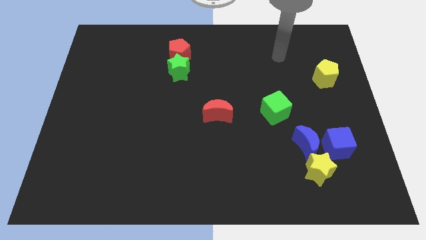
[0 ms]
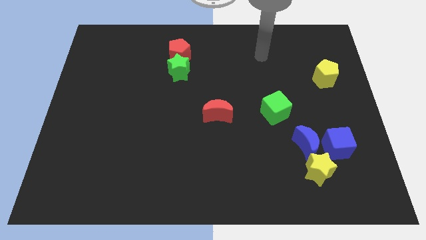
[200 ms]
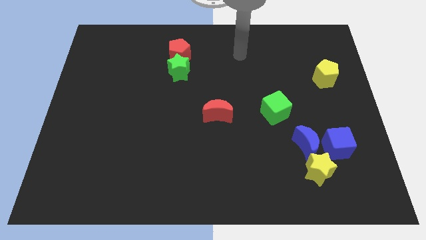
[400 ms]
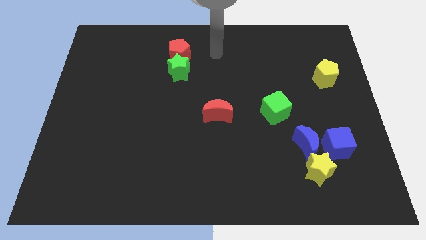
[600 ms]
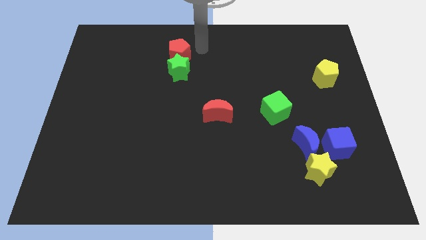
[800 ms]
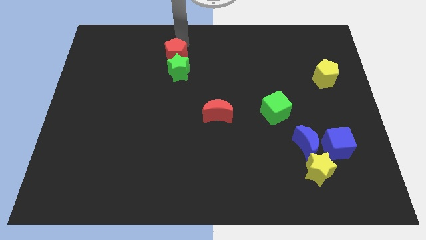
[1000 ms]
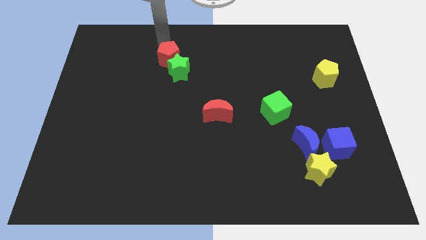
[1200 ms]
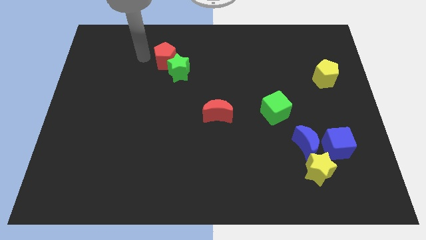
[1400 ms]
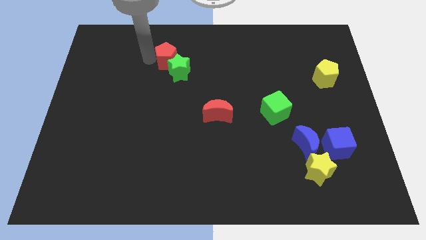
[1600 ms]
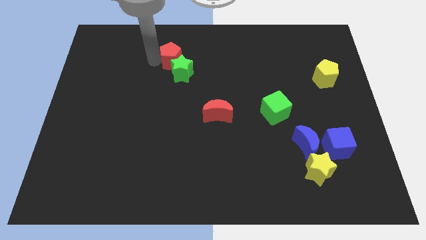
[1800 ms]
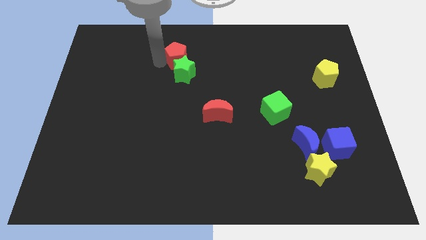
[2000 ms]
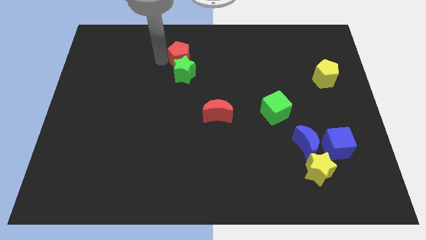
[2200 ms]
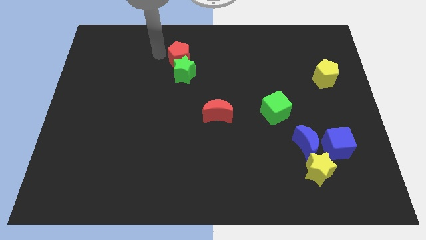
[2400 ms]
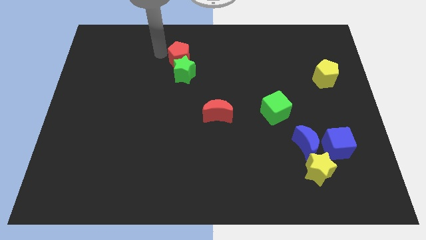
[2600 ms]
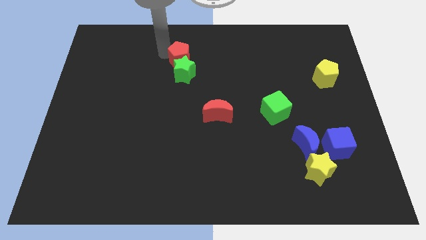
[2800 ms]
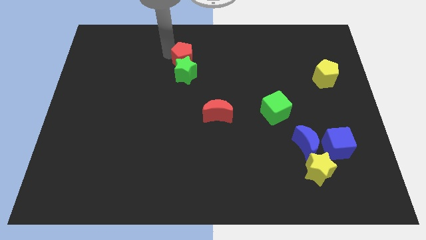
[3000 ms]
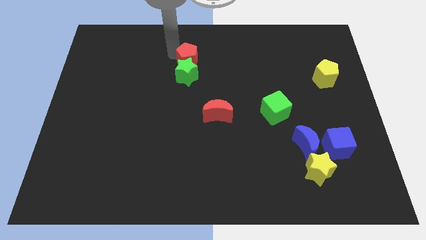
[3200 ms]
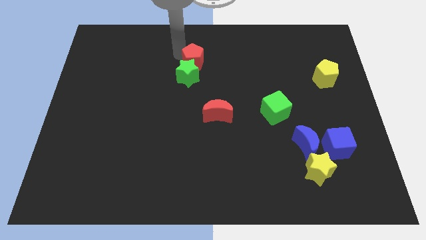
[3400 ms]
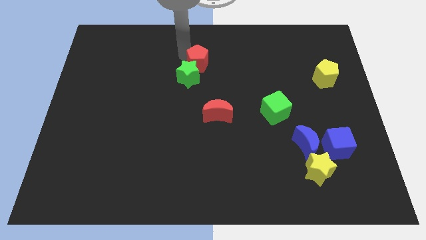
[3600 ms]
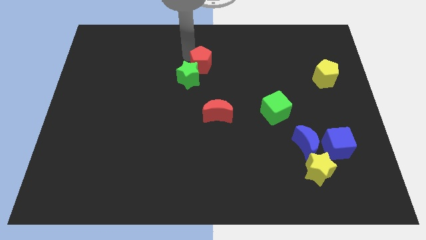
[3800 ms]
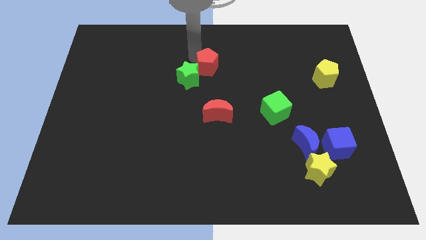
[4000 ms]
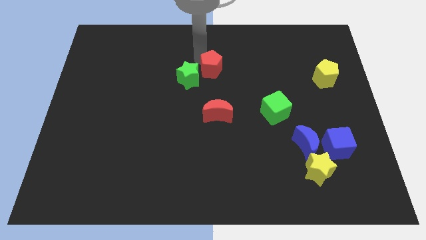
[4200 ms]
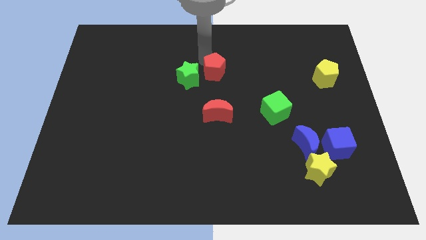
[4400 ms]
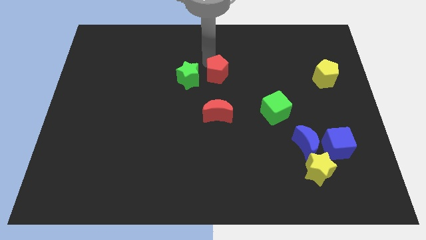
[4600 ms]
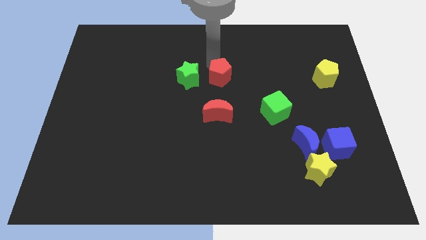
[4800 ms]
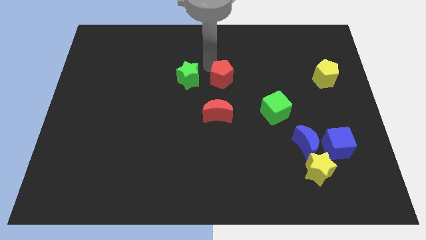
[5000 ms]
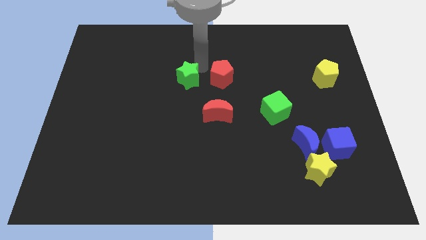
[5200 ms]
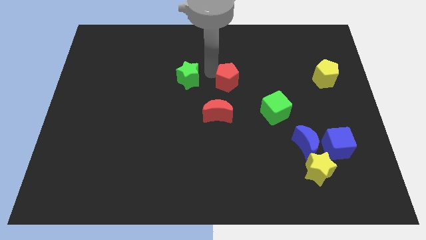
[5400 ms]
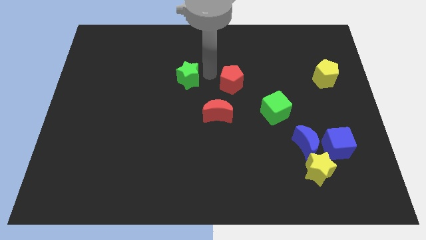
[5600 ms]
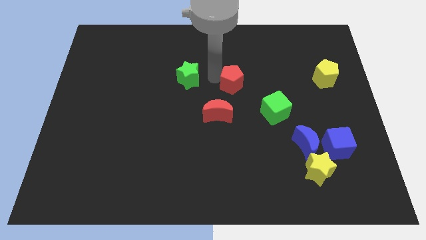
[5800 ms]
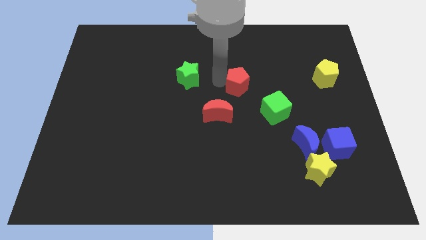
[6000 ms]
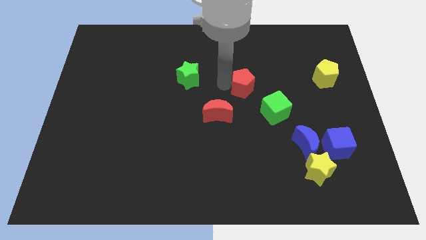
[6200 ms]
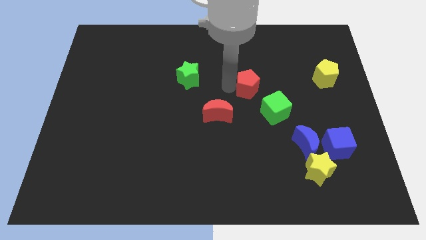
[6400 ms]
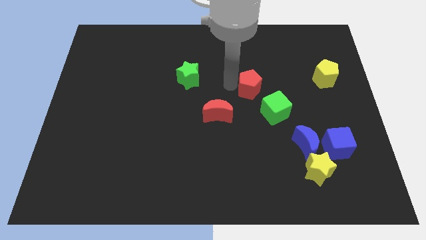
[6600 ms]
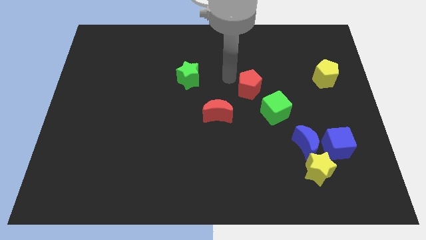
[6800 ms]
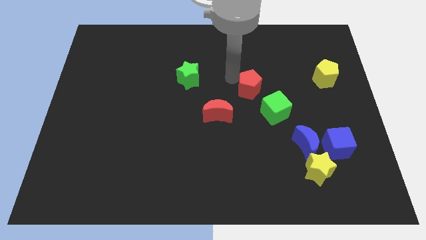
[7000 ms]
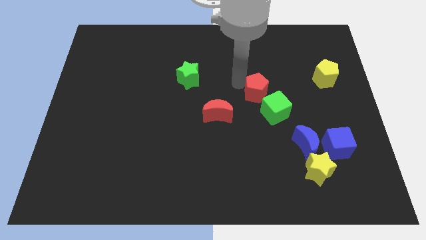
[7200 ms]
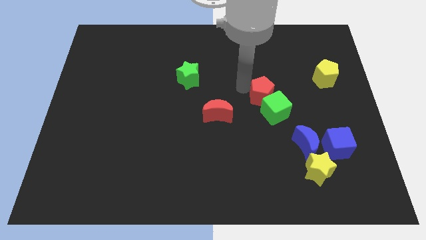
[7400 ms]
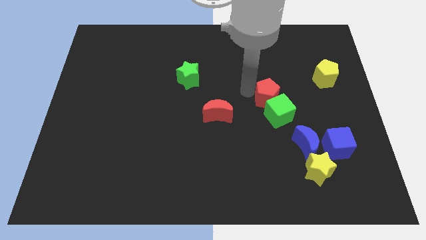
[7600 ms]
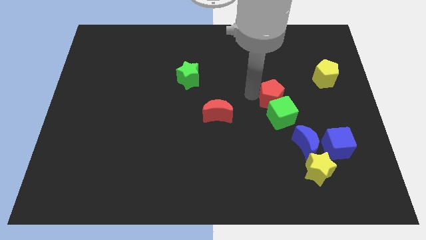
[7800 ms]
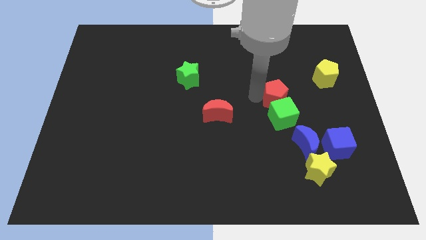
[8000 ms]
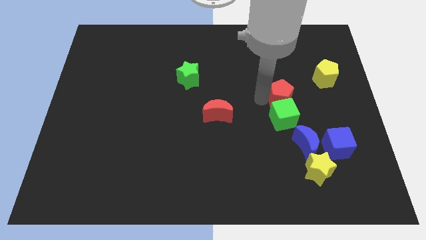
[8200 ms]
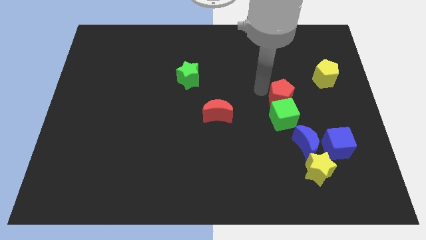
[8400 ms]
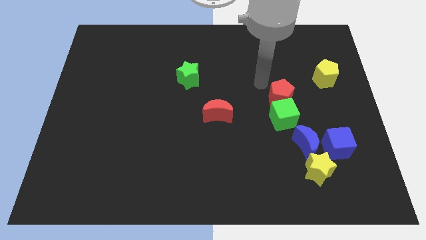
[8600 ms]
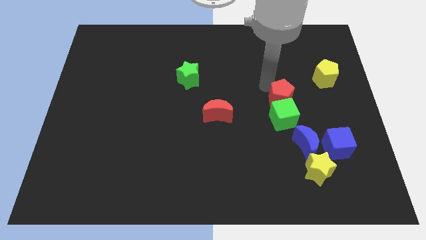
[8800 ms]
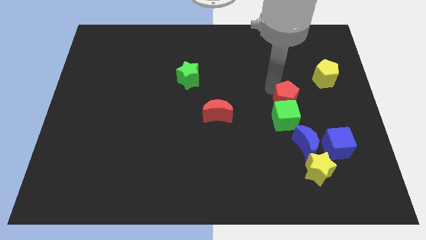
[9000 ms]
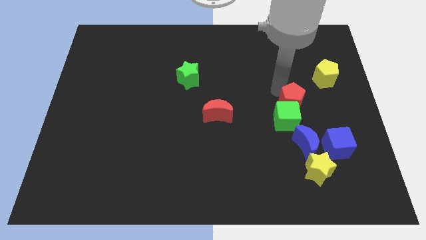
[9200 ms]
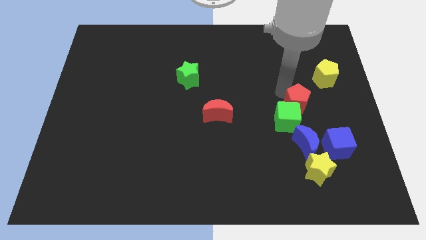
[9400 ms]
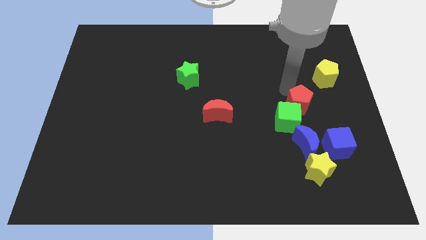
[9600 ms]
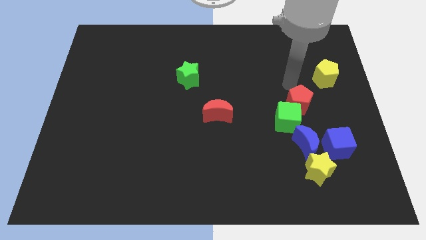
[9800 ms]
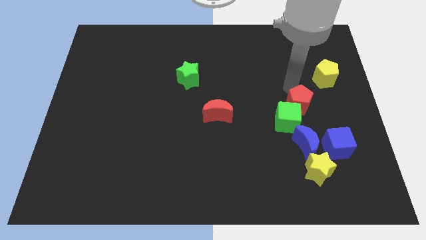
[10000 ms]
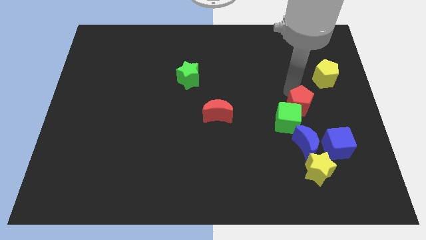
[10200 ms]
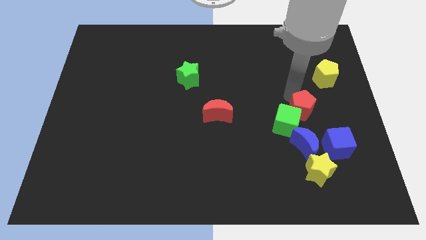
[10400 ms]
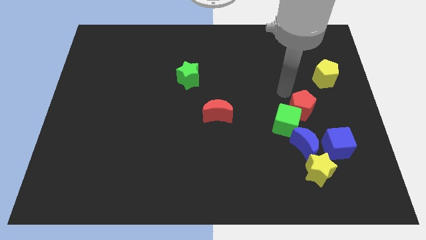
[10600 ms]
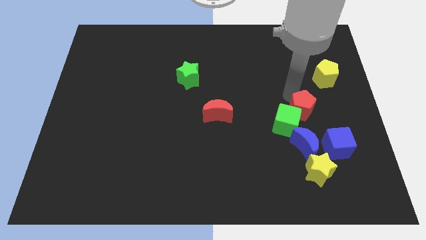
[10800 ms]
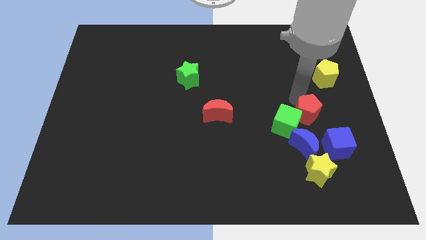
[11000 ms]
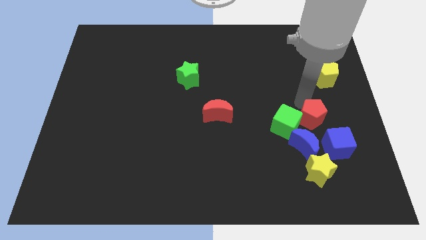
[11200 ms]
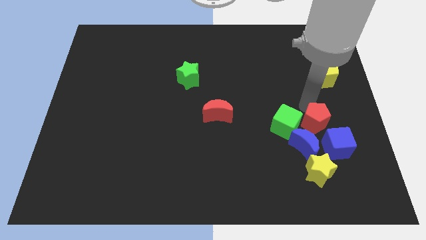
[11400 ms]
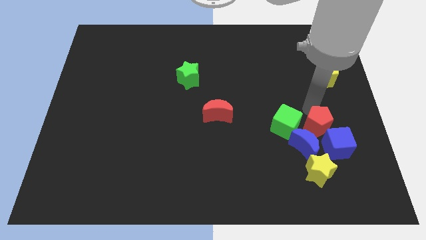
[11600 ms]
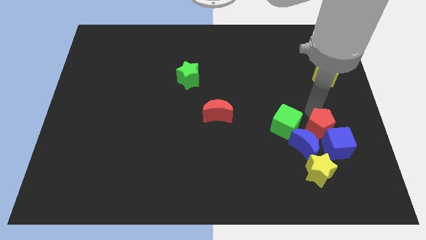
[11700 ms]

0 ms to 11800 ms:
slide the red pentagon towards the blue cube

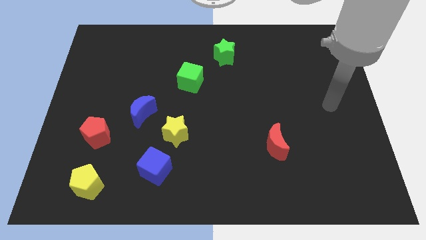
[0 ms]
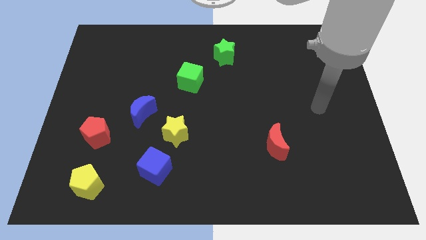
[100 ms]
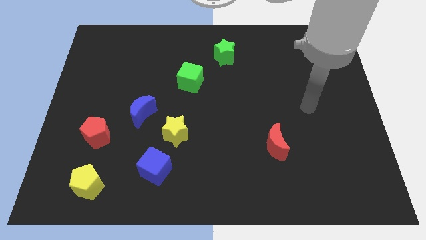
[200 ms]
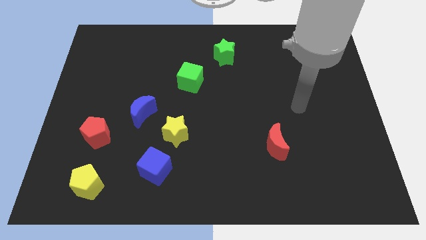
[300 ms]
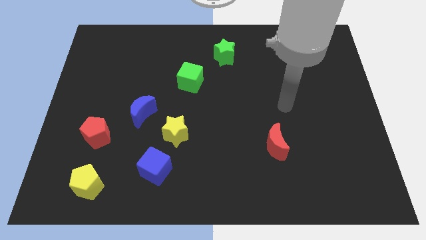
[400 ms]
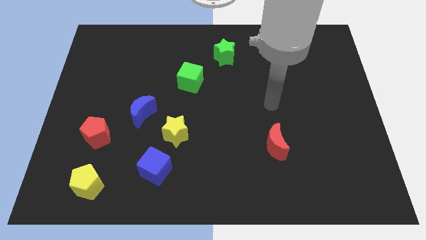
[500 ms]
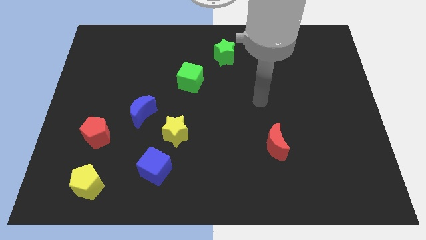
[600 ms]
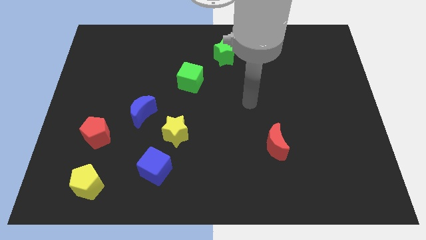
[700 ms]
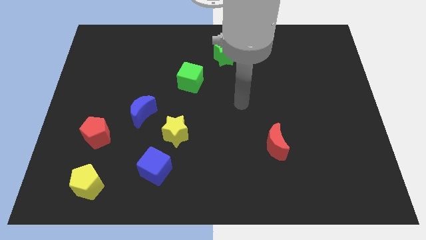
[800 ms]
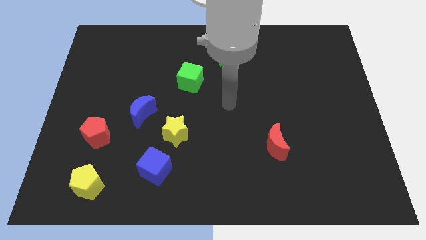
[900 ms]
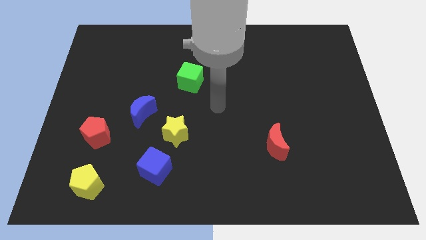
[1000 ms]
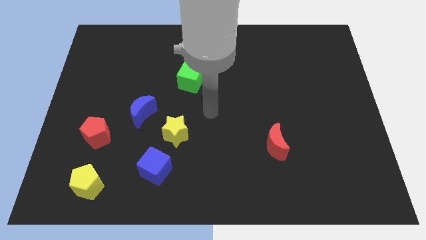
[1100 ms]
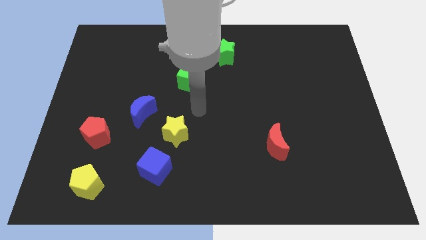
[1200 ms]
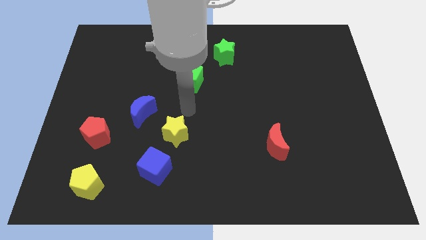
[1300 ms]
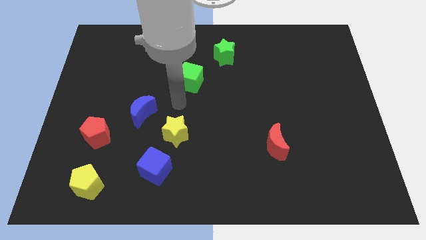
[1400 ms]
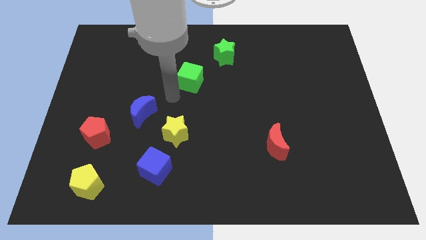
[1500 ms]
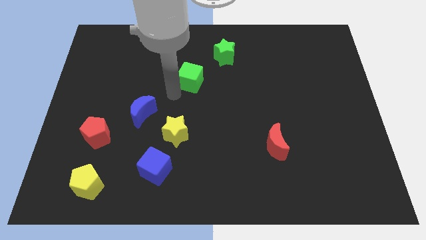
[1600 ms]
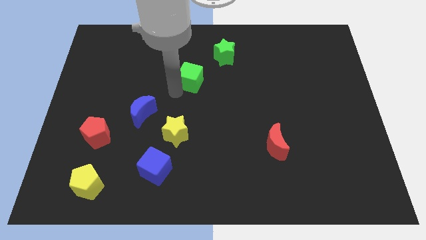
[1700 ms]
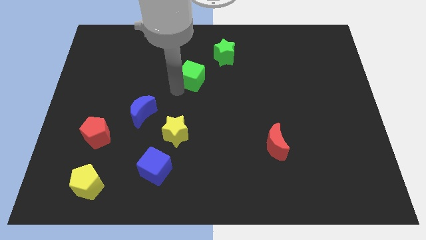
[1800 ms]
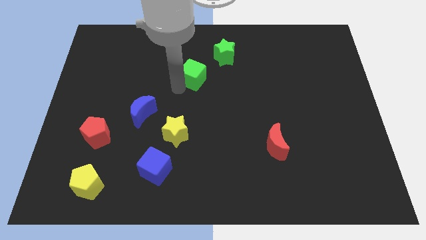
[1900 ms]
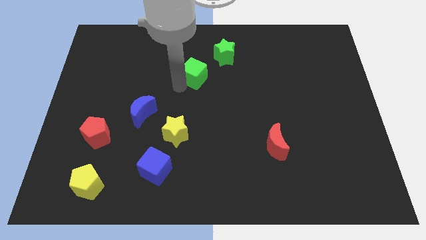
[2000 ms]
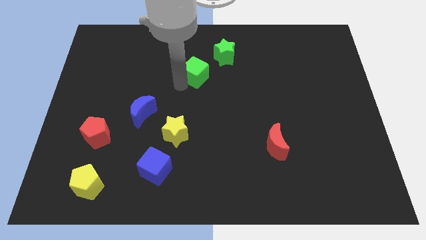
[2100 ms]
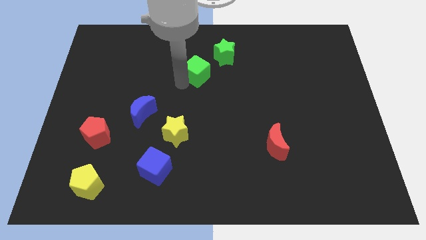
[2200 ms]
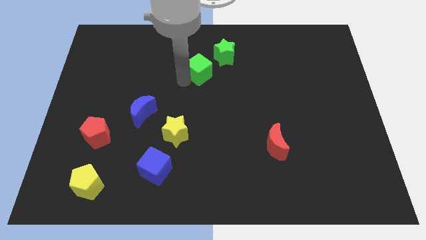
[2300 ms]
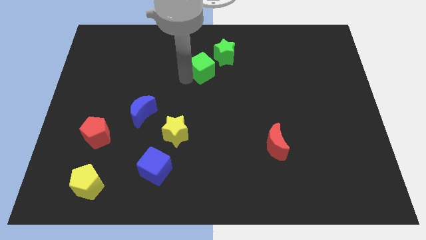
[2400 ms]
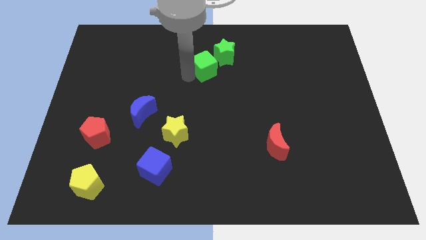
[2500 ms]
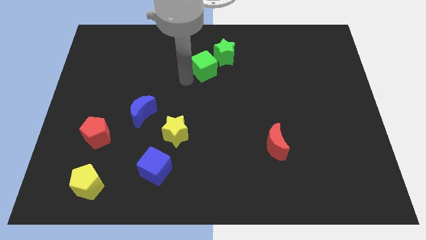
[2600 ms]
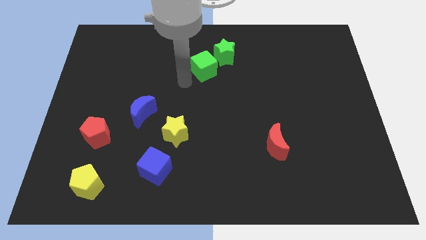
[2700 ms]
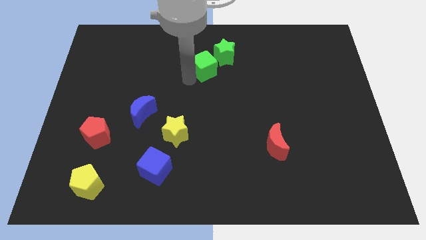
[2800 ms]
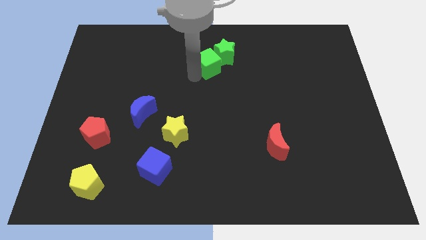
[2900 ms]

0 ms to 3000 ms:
push the green cube to the green star
